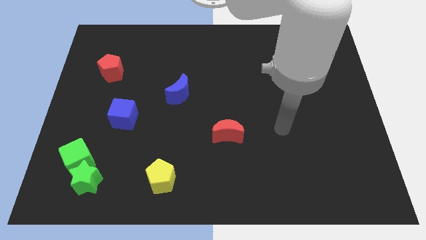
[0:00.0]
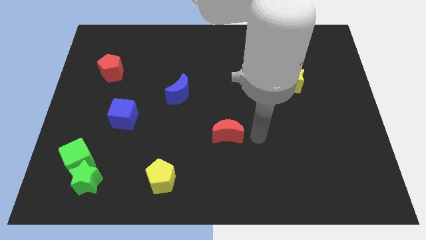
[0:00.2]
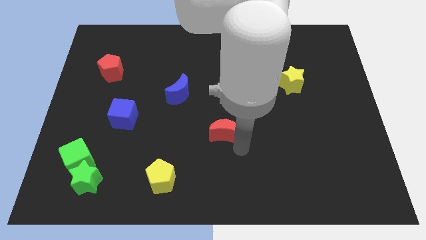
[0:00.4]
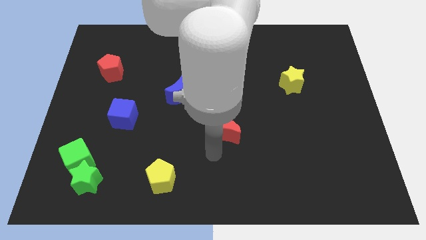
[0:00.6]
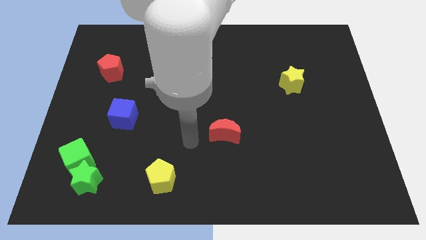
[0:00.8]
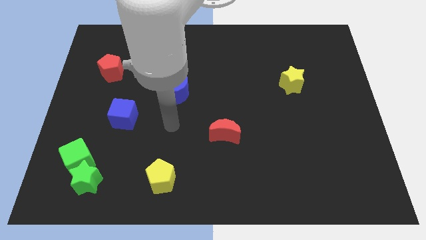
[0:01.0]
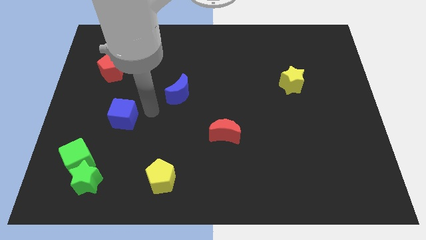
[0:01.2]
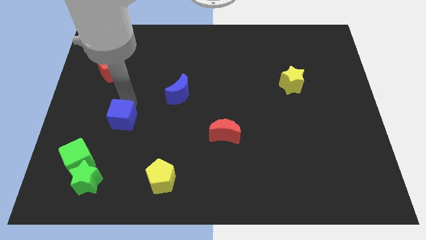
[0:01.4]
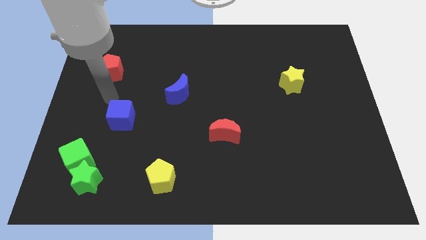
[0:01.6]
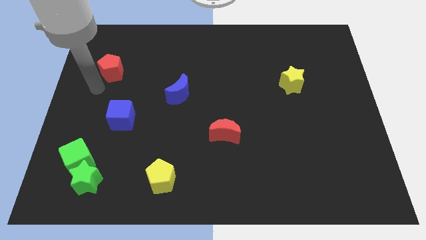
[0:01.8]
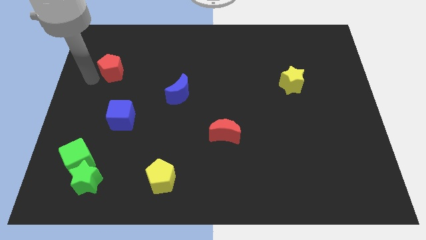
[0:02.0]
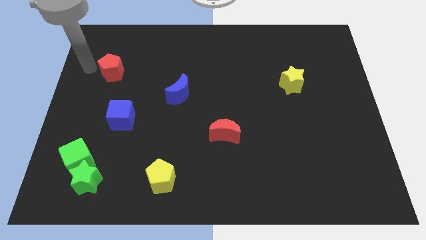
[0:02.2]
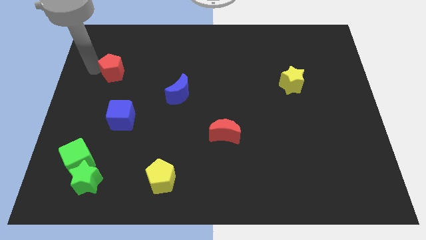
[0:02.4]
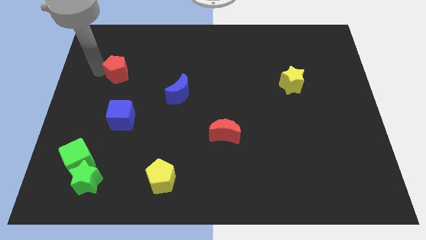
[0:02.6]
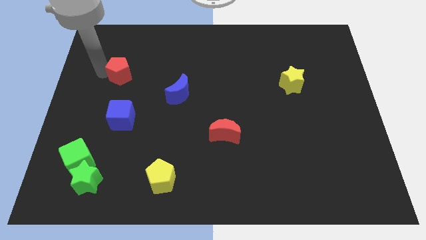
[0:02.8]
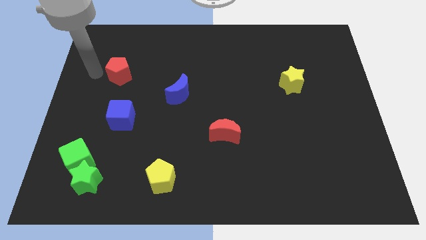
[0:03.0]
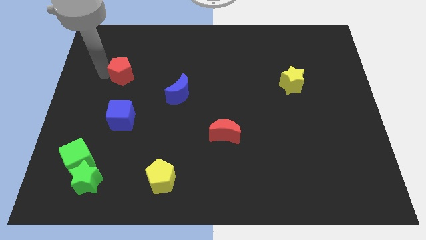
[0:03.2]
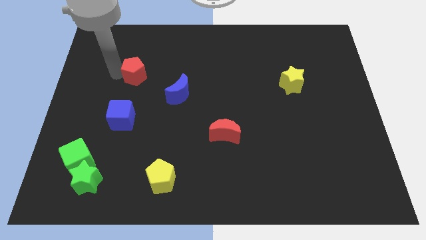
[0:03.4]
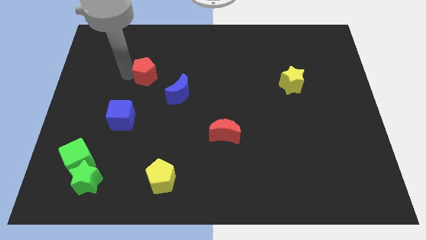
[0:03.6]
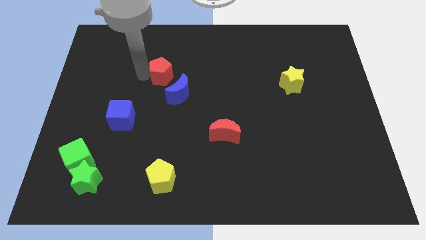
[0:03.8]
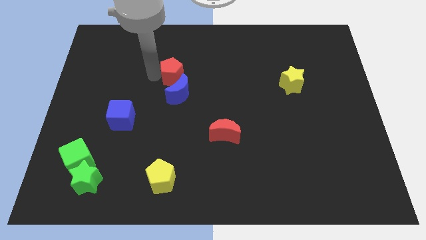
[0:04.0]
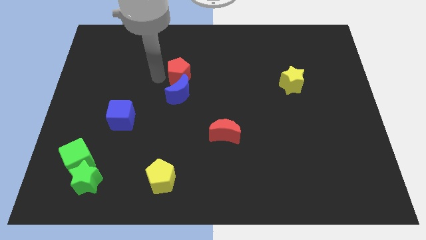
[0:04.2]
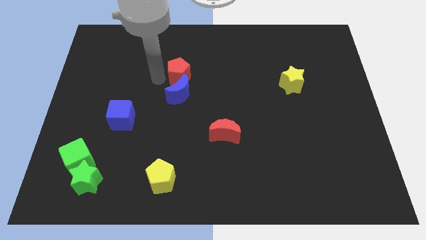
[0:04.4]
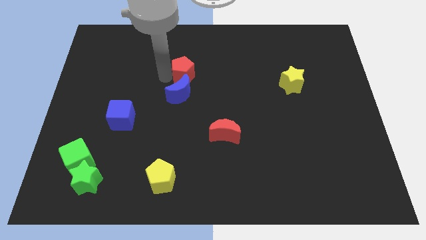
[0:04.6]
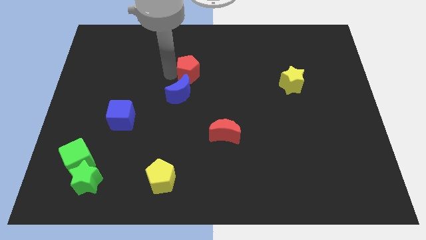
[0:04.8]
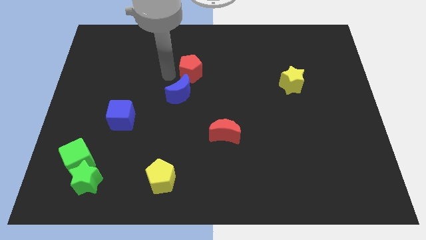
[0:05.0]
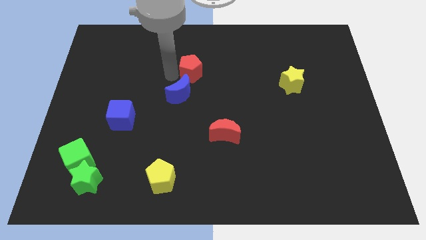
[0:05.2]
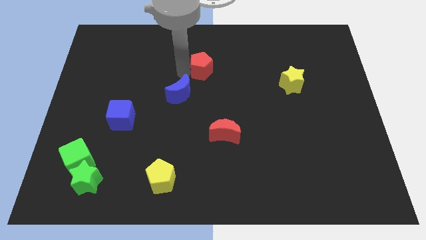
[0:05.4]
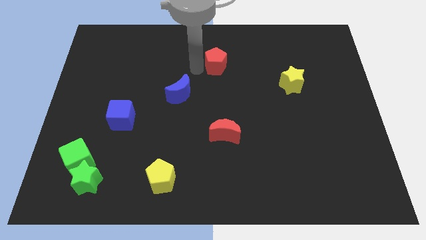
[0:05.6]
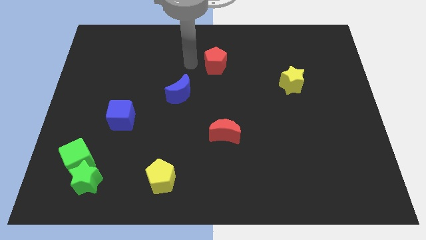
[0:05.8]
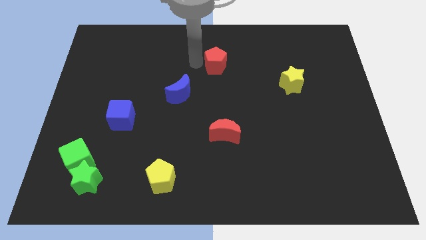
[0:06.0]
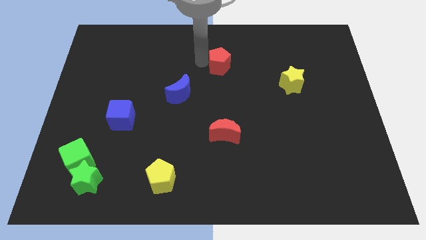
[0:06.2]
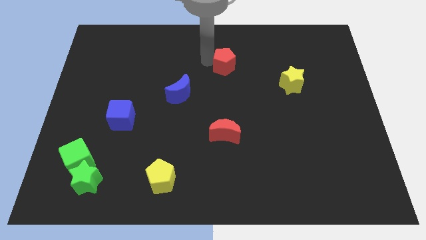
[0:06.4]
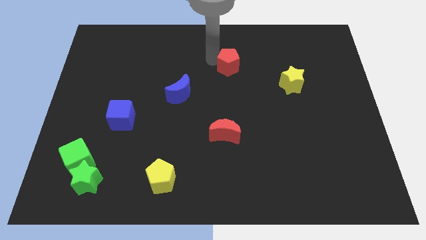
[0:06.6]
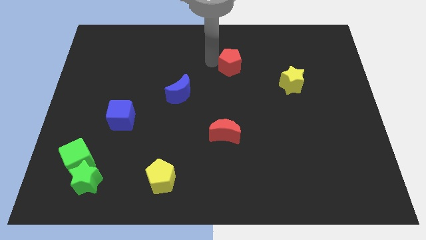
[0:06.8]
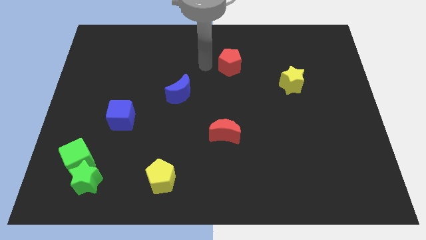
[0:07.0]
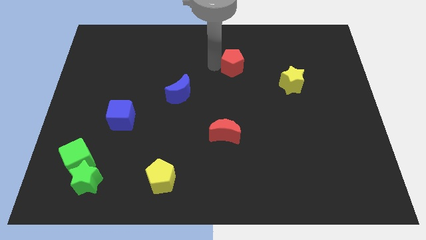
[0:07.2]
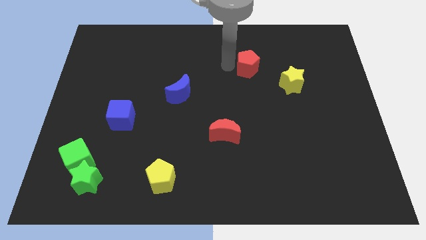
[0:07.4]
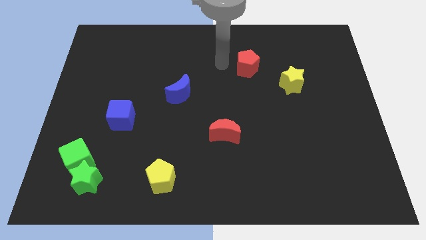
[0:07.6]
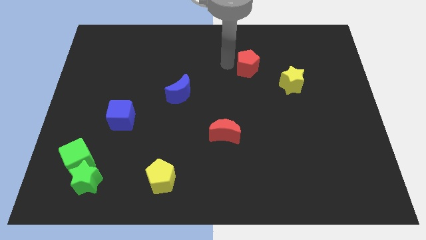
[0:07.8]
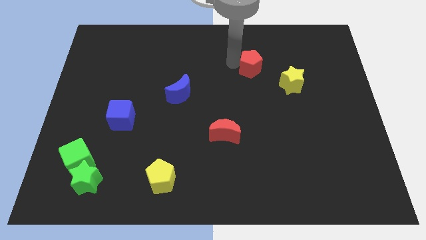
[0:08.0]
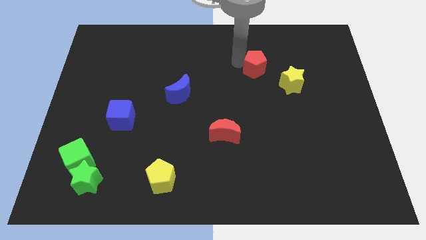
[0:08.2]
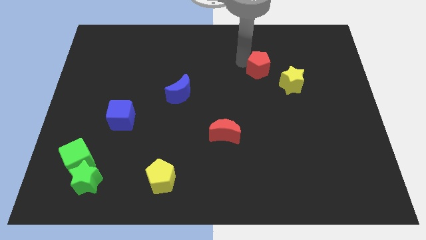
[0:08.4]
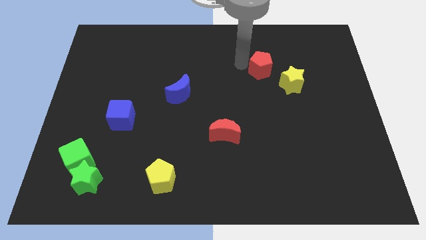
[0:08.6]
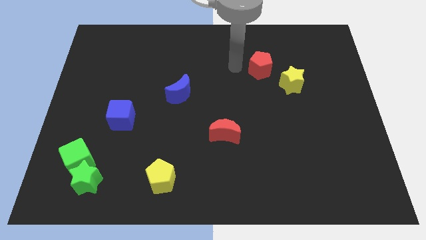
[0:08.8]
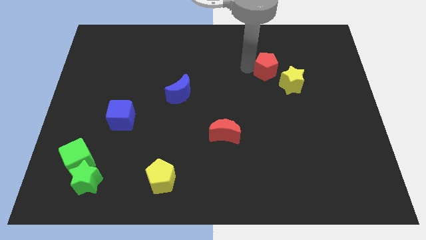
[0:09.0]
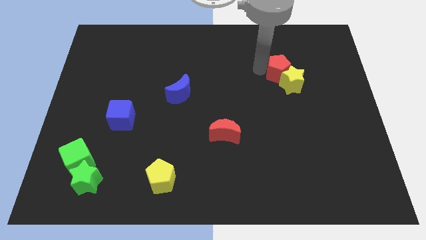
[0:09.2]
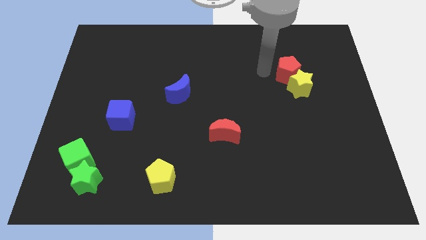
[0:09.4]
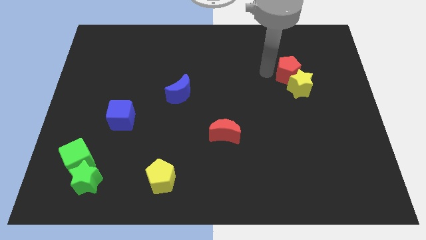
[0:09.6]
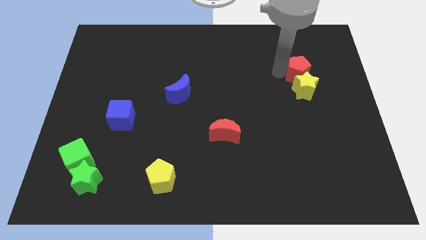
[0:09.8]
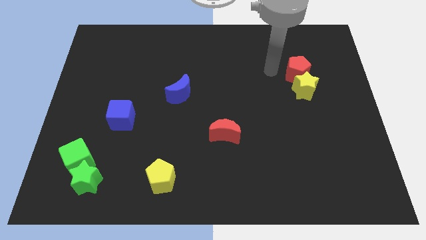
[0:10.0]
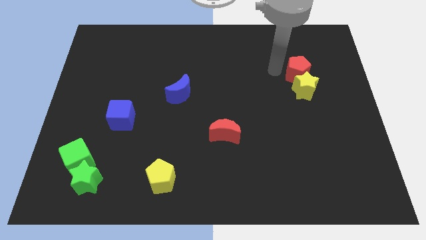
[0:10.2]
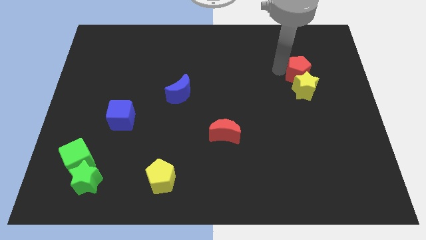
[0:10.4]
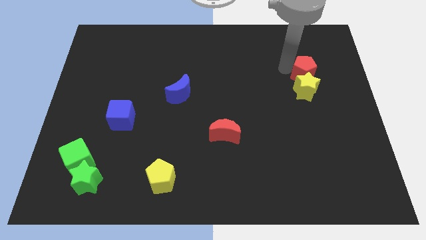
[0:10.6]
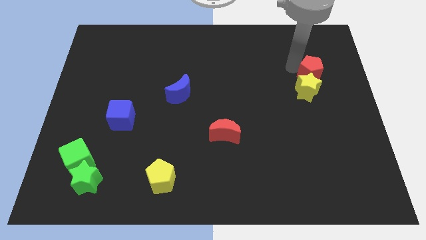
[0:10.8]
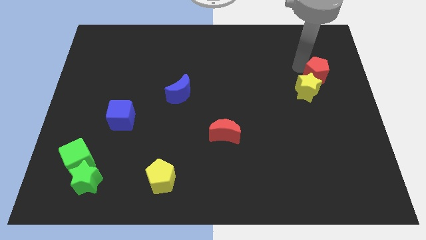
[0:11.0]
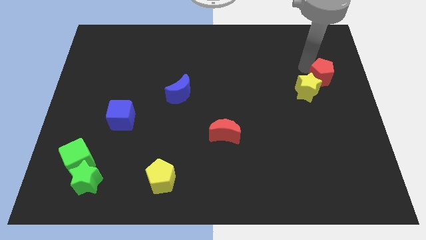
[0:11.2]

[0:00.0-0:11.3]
move the red pentagon to the right side

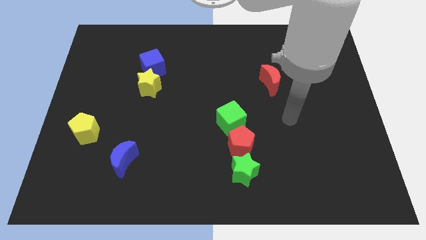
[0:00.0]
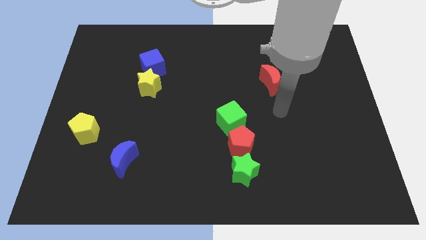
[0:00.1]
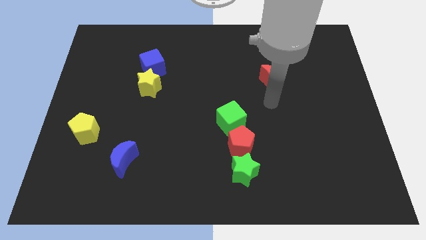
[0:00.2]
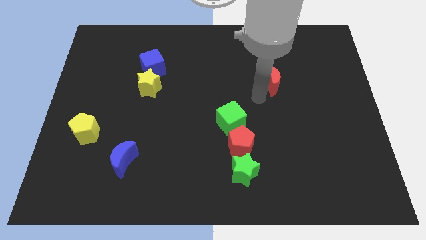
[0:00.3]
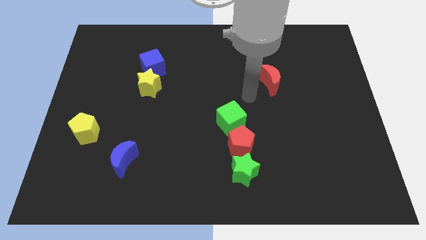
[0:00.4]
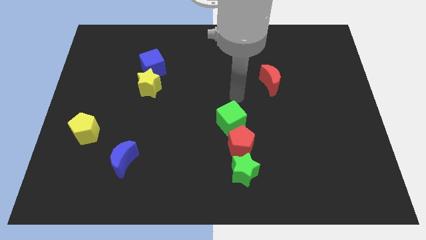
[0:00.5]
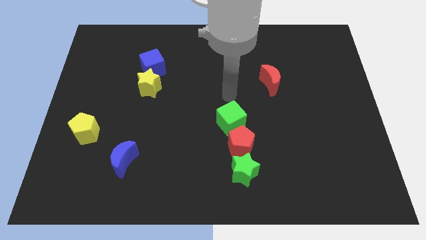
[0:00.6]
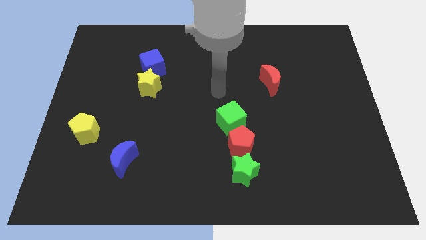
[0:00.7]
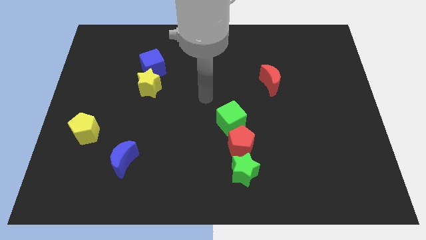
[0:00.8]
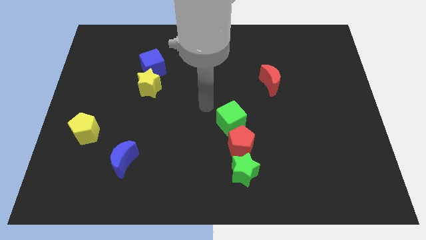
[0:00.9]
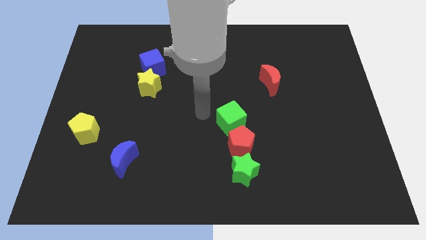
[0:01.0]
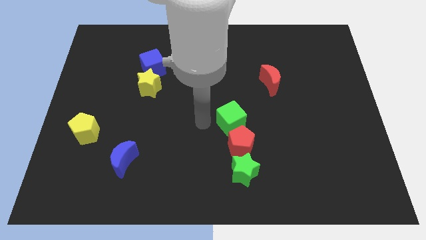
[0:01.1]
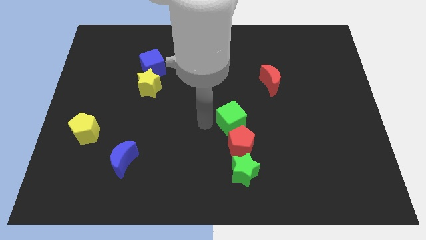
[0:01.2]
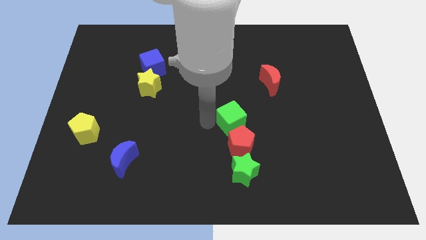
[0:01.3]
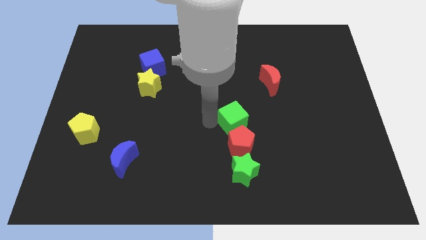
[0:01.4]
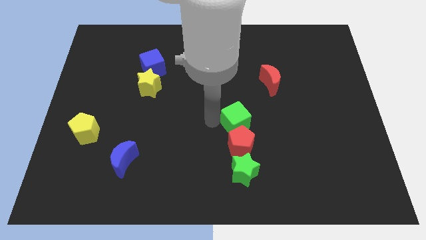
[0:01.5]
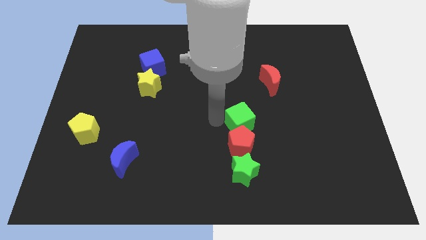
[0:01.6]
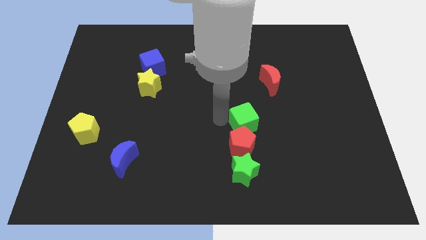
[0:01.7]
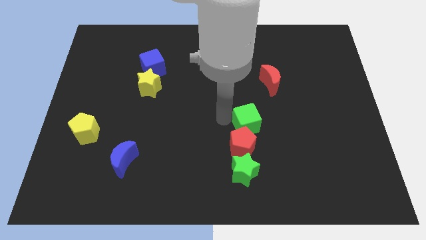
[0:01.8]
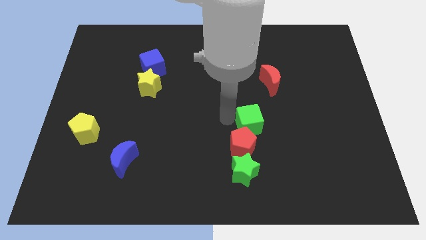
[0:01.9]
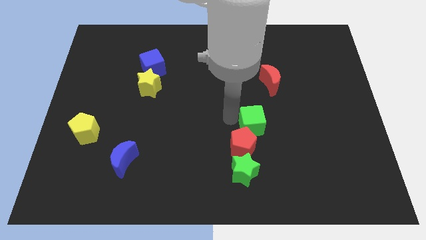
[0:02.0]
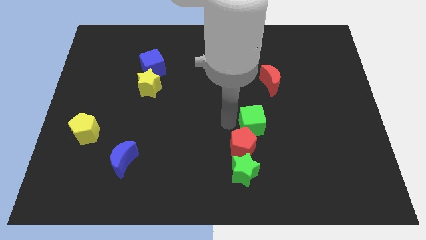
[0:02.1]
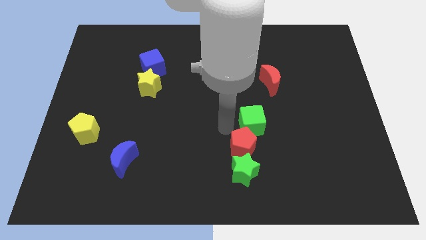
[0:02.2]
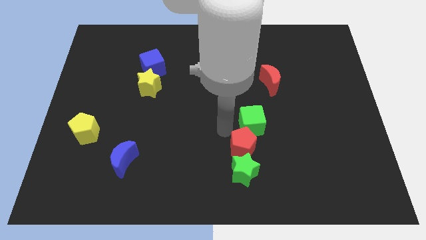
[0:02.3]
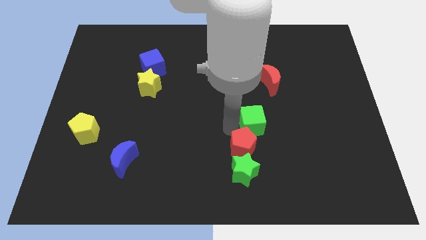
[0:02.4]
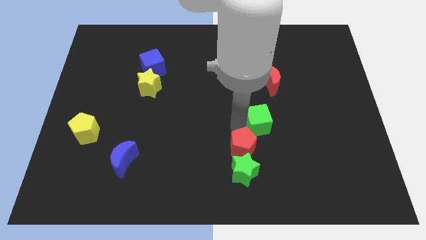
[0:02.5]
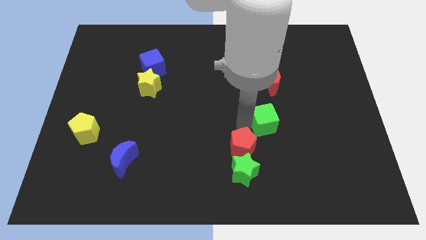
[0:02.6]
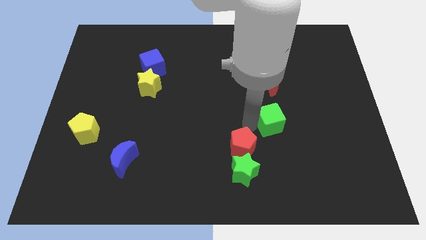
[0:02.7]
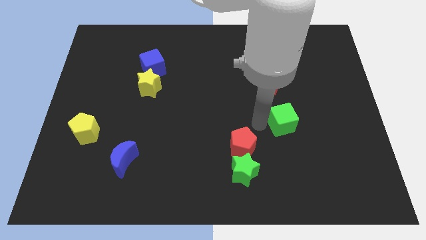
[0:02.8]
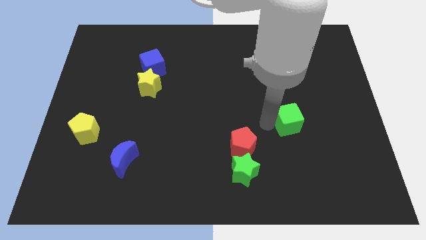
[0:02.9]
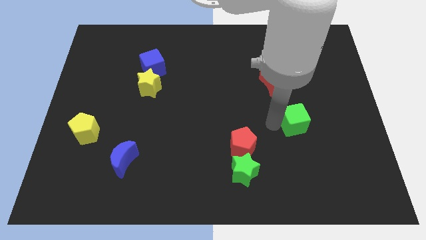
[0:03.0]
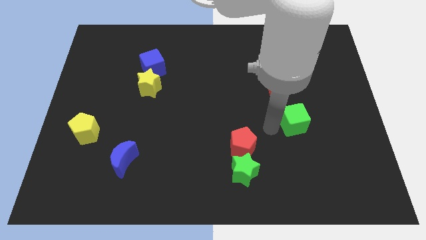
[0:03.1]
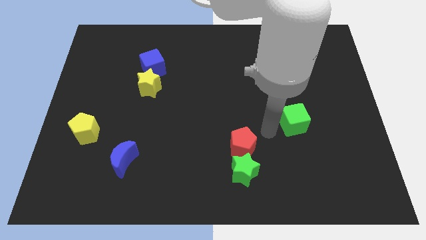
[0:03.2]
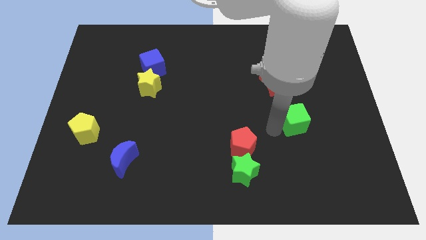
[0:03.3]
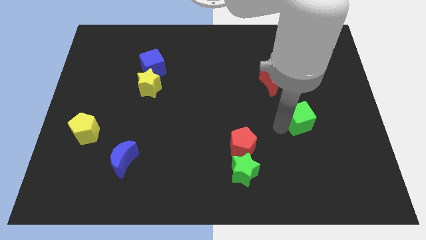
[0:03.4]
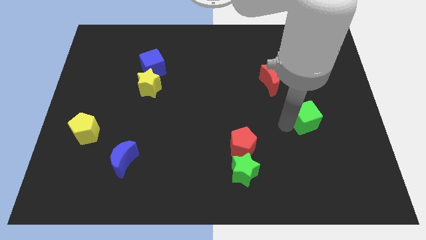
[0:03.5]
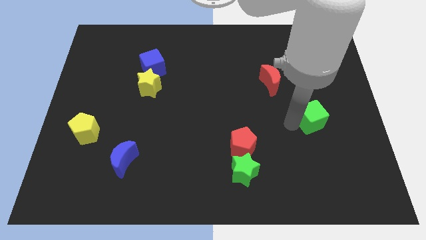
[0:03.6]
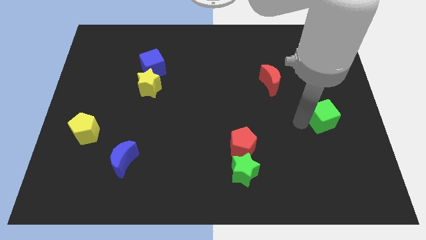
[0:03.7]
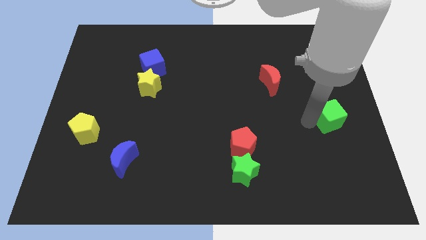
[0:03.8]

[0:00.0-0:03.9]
move the green cube to the right side of the board
